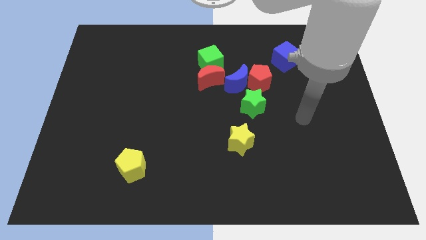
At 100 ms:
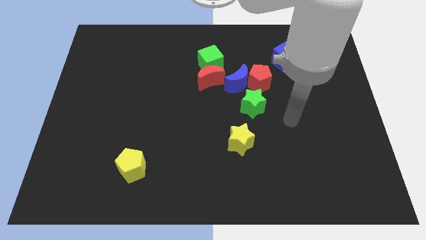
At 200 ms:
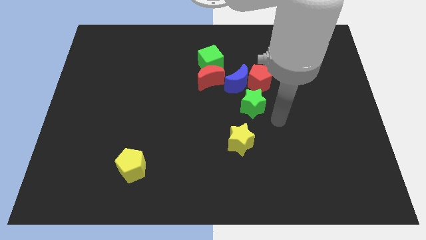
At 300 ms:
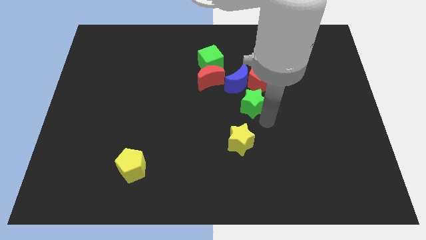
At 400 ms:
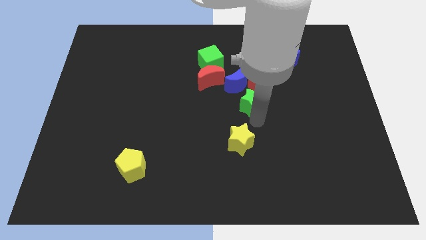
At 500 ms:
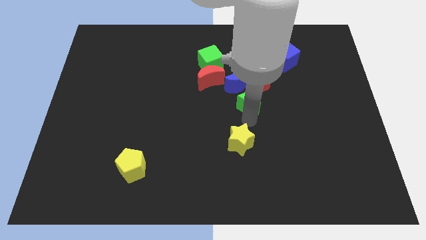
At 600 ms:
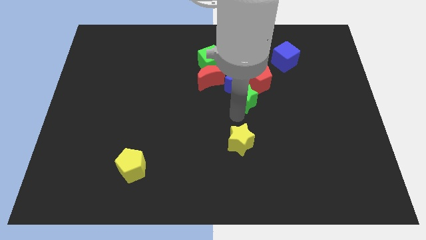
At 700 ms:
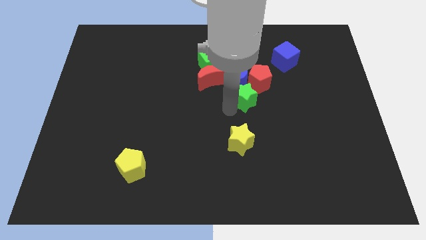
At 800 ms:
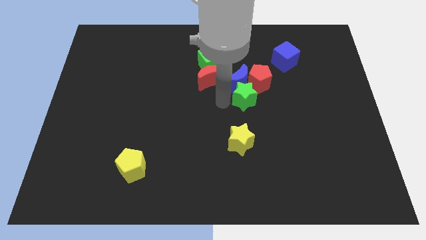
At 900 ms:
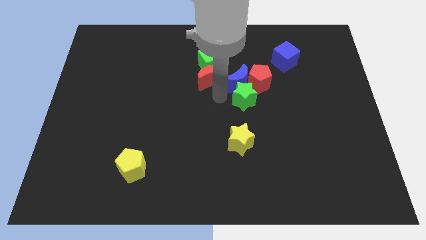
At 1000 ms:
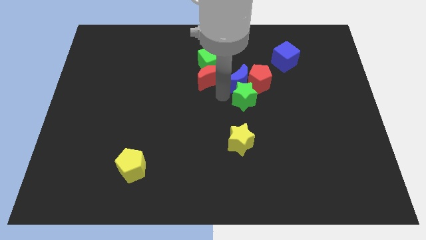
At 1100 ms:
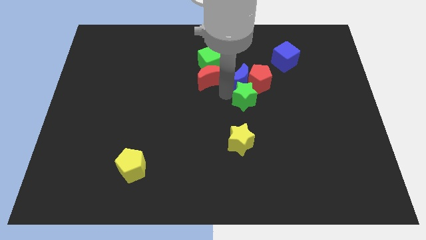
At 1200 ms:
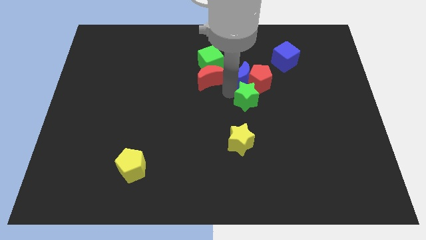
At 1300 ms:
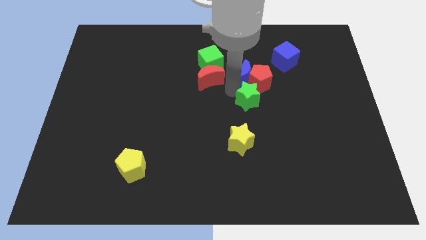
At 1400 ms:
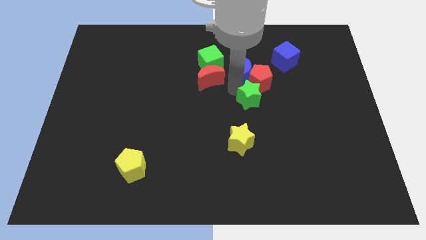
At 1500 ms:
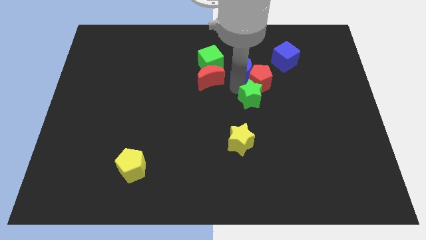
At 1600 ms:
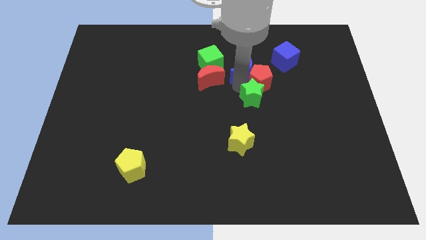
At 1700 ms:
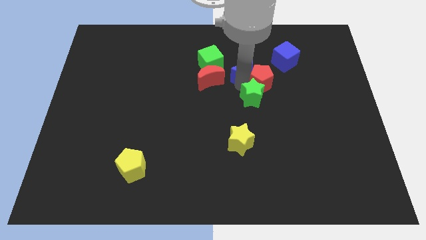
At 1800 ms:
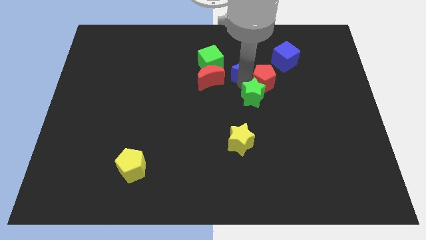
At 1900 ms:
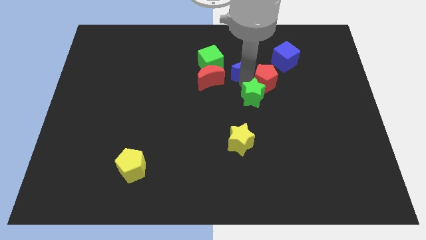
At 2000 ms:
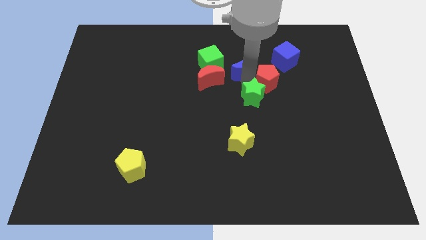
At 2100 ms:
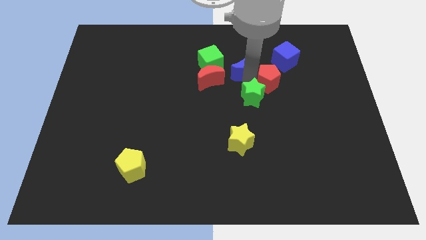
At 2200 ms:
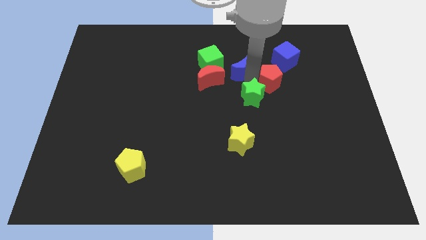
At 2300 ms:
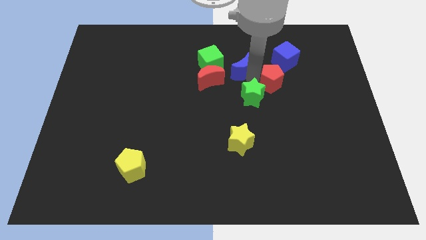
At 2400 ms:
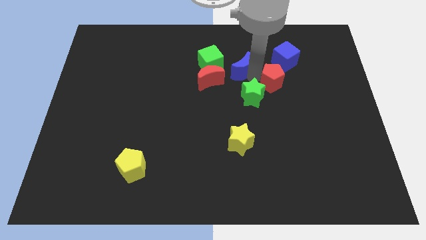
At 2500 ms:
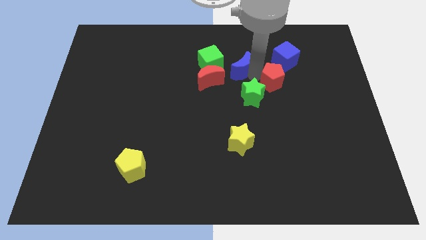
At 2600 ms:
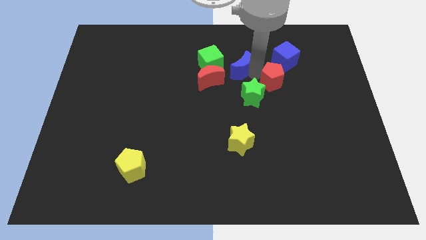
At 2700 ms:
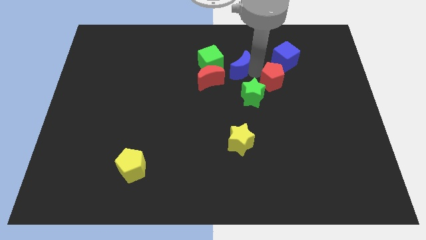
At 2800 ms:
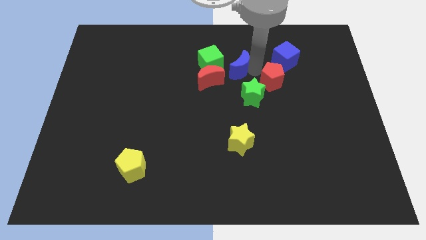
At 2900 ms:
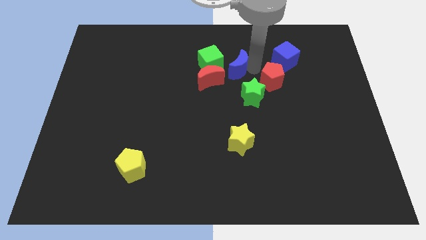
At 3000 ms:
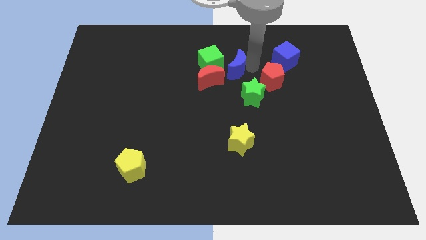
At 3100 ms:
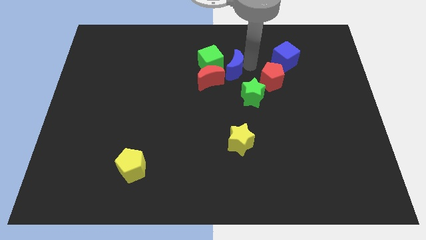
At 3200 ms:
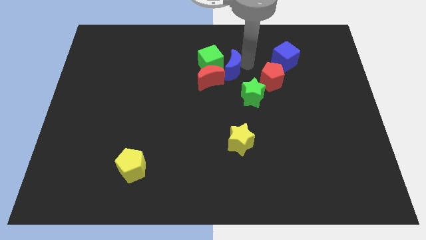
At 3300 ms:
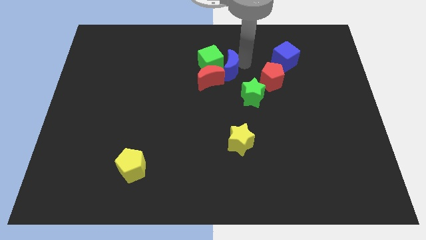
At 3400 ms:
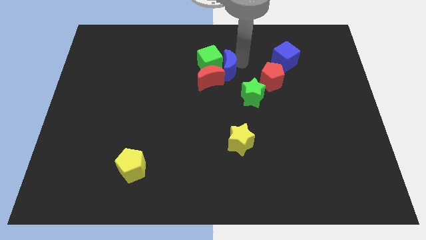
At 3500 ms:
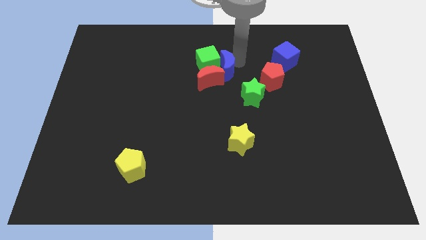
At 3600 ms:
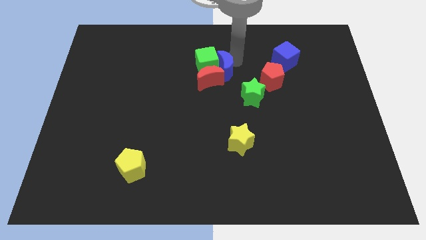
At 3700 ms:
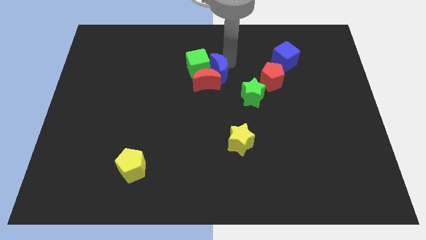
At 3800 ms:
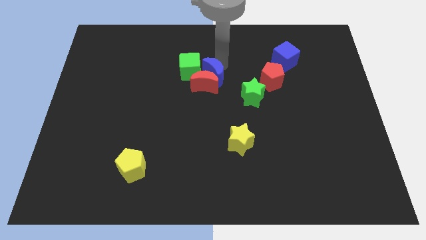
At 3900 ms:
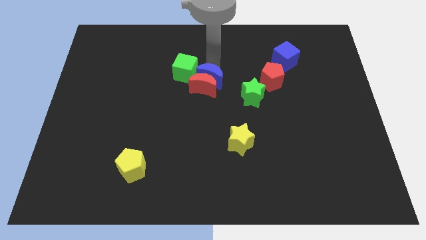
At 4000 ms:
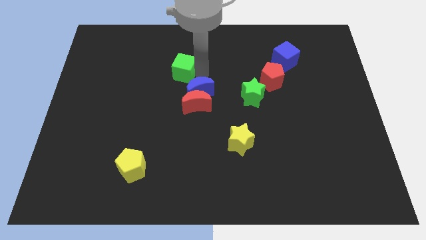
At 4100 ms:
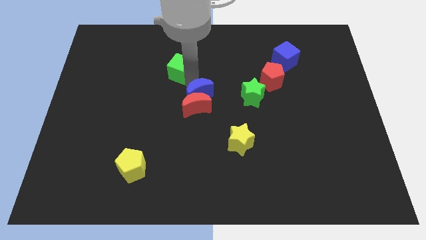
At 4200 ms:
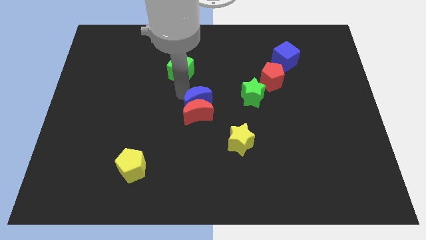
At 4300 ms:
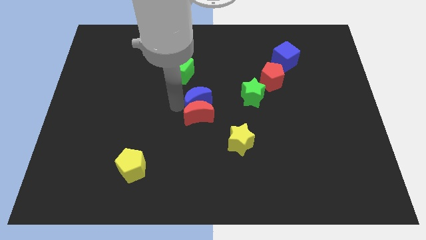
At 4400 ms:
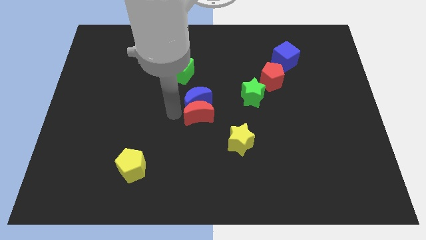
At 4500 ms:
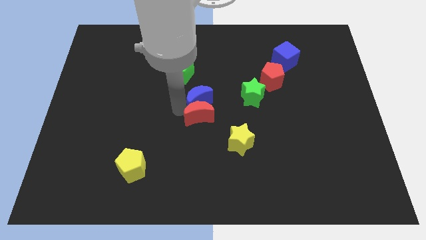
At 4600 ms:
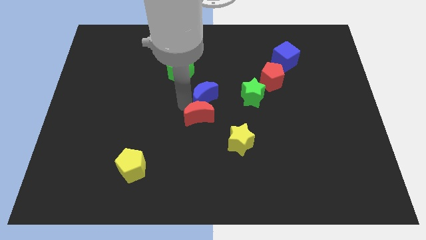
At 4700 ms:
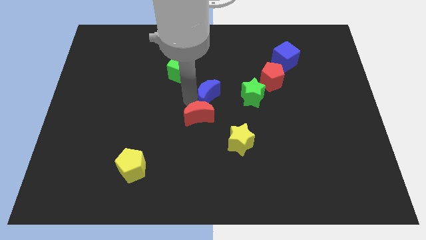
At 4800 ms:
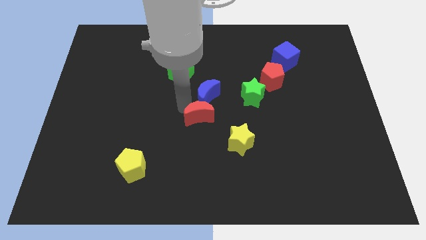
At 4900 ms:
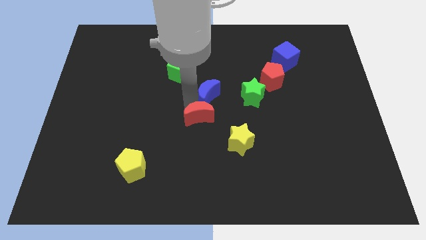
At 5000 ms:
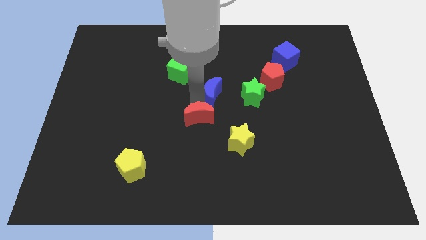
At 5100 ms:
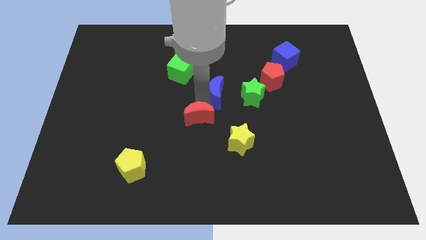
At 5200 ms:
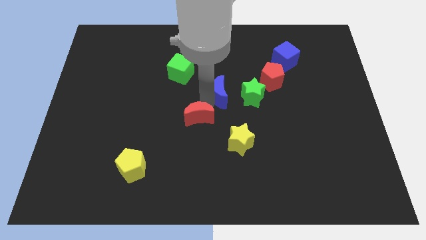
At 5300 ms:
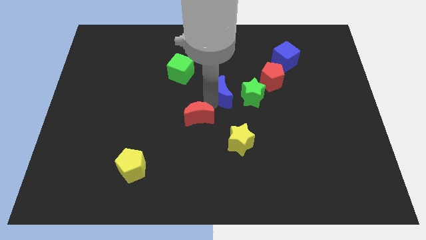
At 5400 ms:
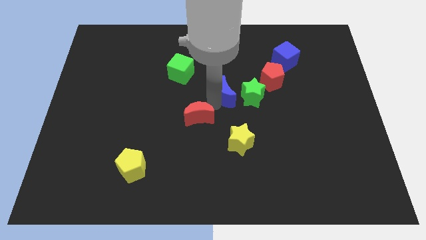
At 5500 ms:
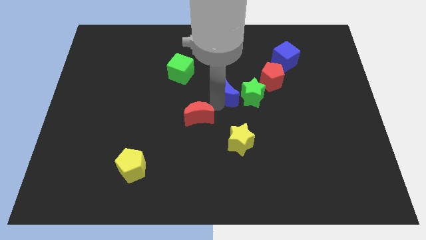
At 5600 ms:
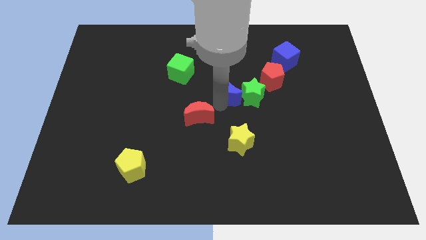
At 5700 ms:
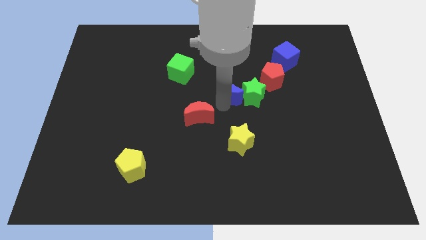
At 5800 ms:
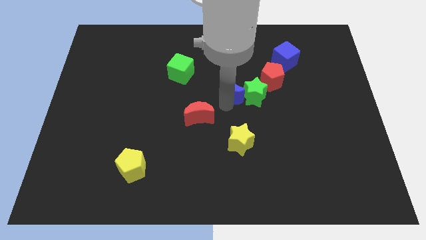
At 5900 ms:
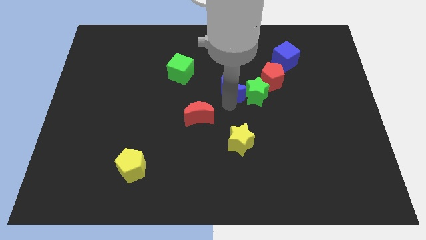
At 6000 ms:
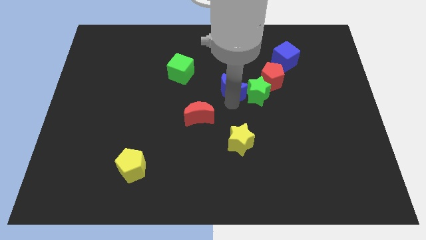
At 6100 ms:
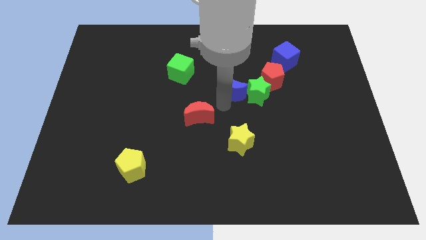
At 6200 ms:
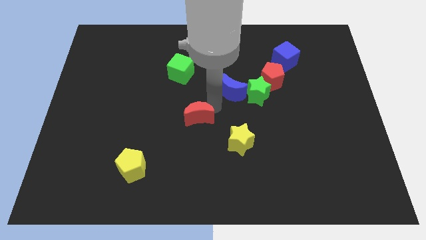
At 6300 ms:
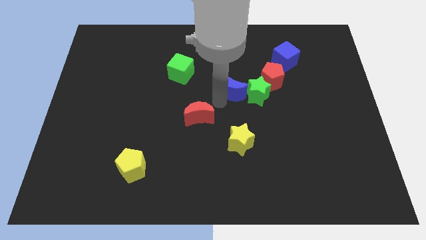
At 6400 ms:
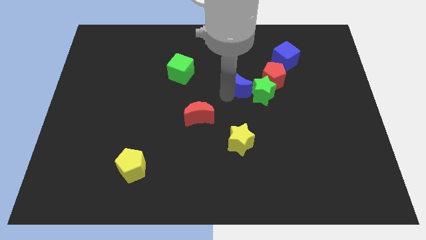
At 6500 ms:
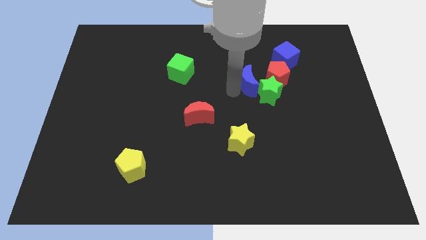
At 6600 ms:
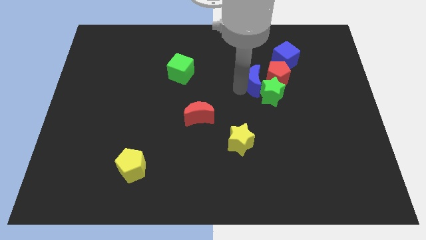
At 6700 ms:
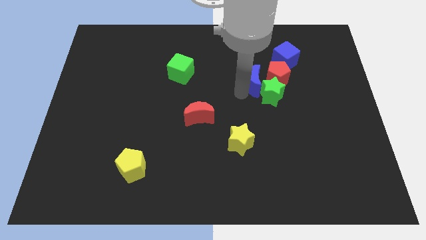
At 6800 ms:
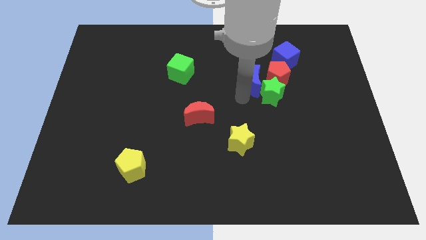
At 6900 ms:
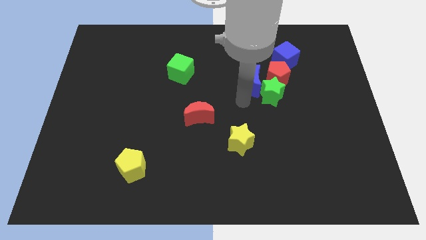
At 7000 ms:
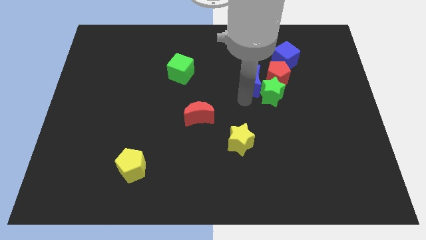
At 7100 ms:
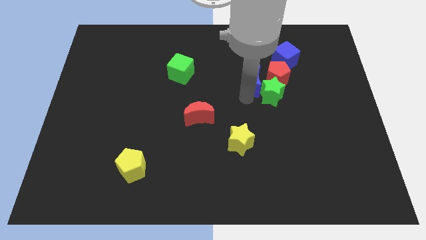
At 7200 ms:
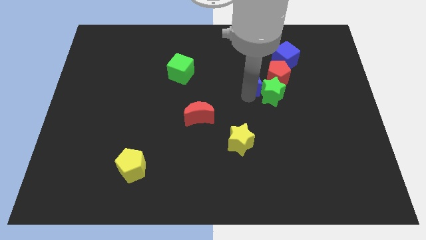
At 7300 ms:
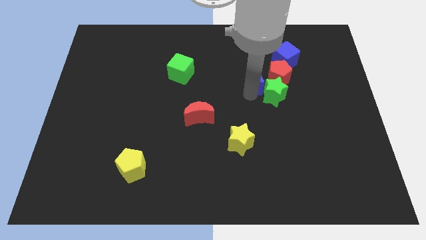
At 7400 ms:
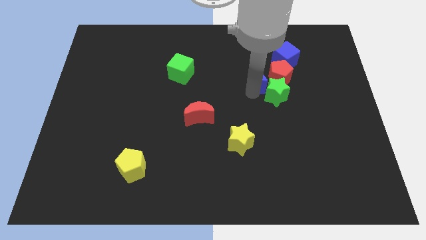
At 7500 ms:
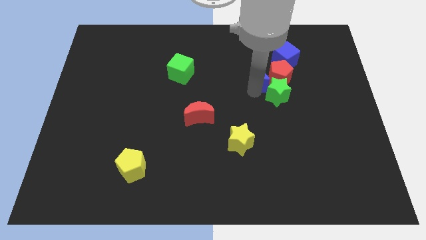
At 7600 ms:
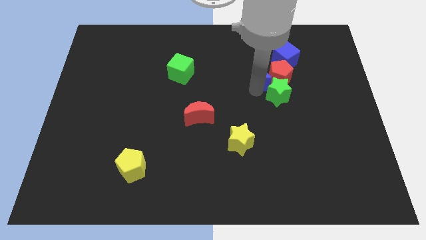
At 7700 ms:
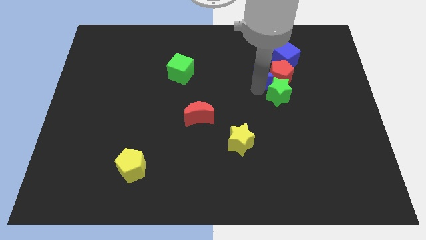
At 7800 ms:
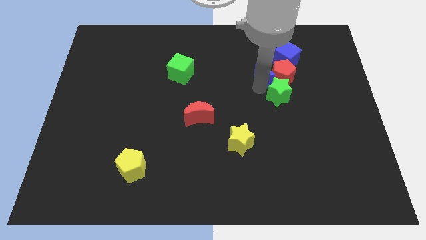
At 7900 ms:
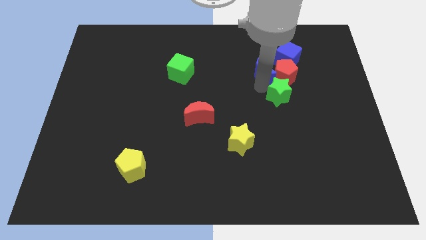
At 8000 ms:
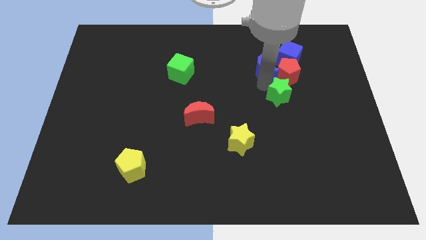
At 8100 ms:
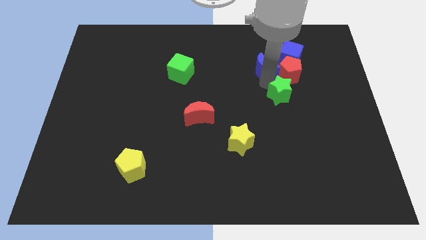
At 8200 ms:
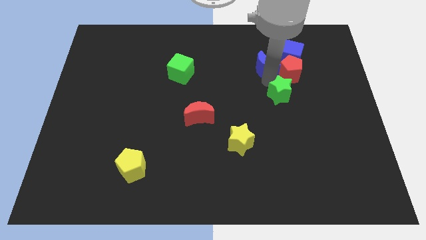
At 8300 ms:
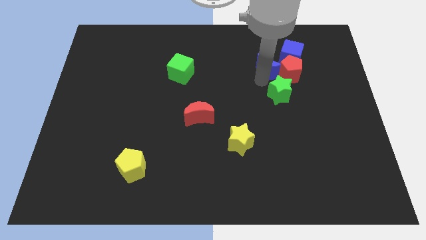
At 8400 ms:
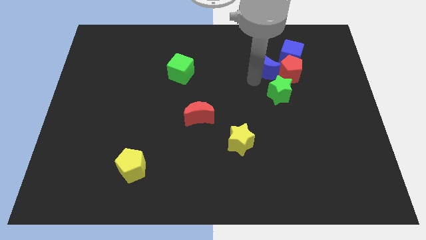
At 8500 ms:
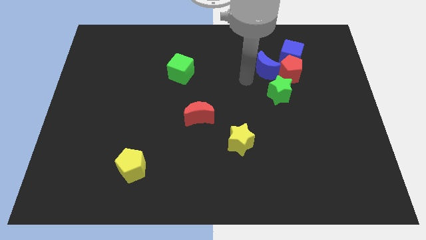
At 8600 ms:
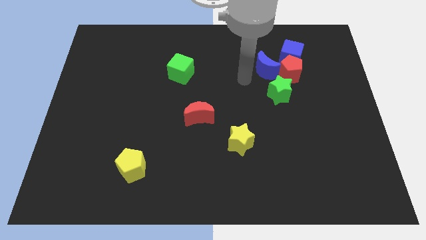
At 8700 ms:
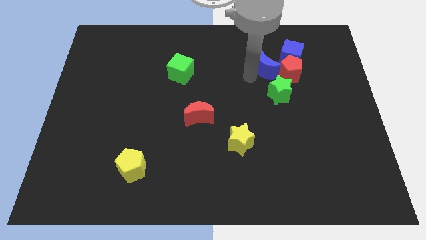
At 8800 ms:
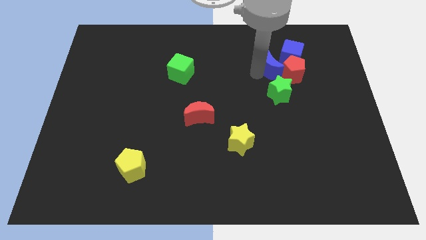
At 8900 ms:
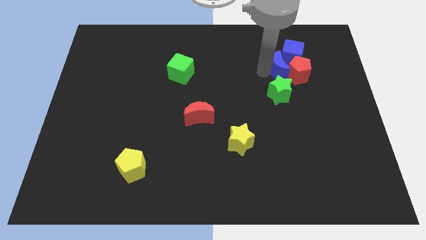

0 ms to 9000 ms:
put the blue moon next to the blue cube
